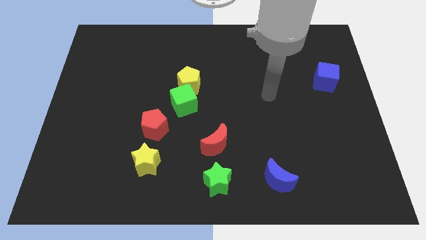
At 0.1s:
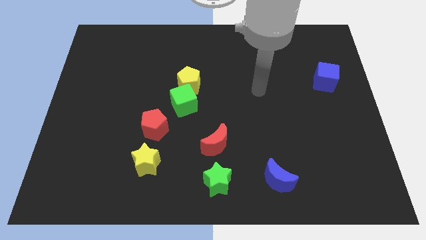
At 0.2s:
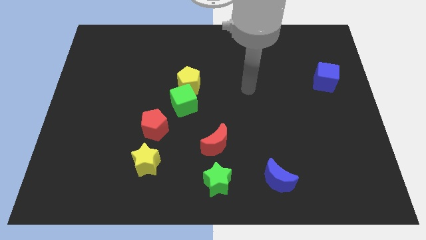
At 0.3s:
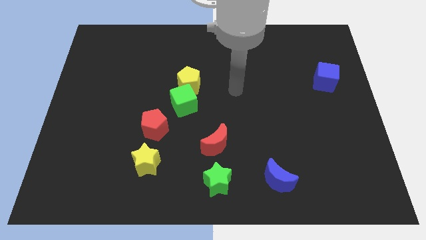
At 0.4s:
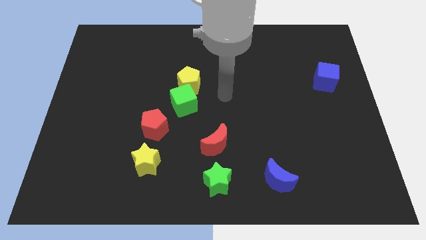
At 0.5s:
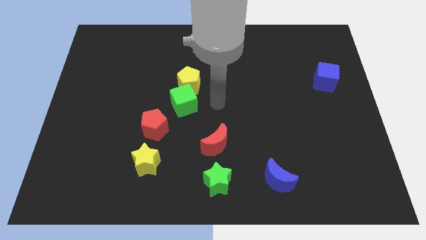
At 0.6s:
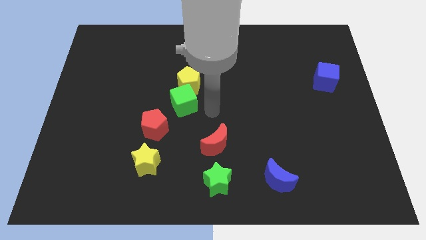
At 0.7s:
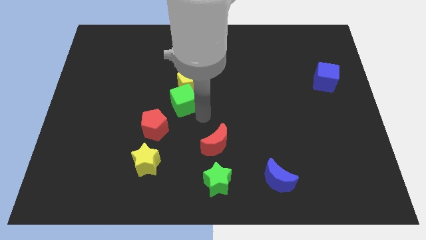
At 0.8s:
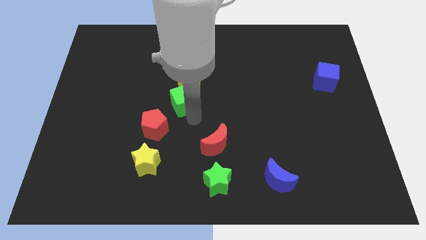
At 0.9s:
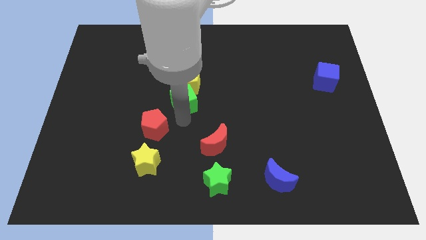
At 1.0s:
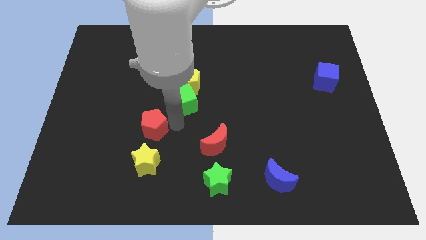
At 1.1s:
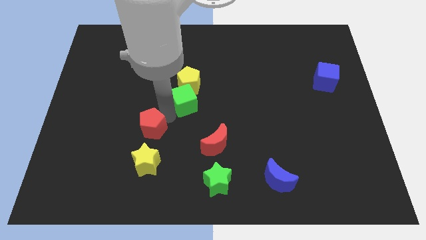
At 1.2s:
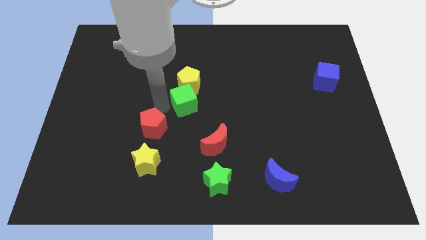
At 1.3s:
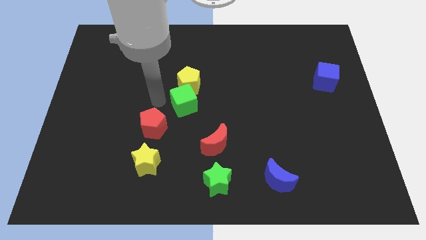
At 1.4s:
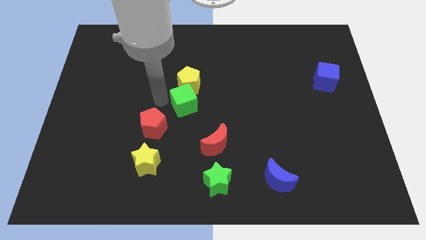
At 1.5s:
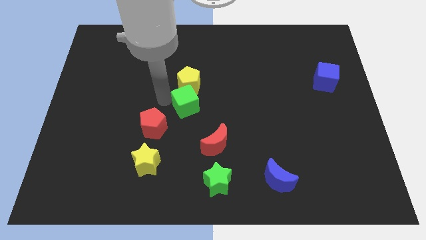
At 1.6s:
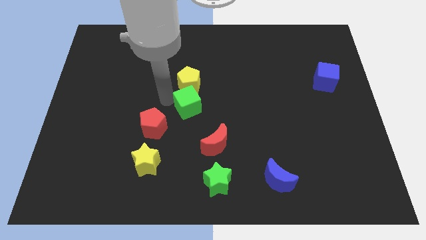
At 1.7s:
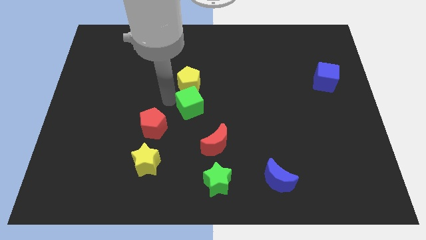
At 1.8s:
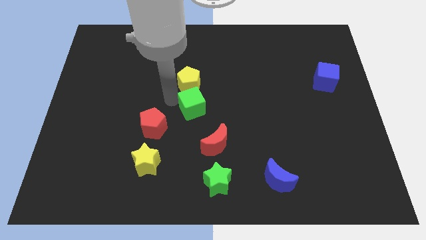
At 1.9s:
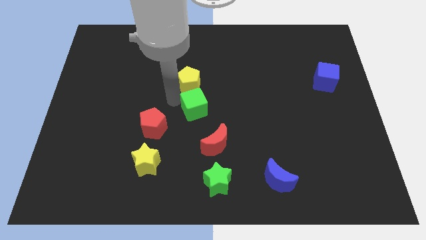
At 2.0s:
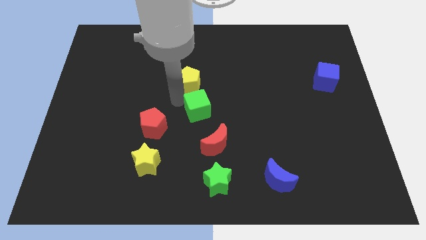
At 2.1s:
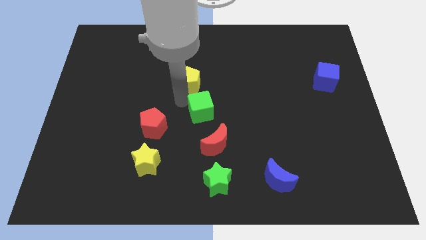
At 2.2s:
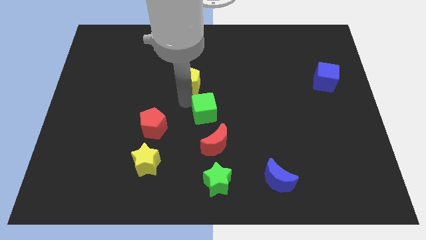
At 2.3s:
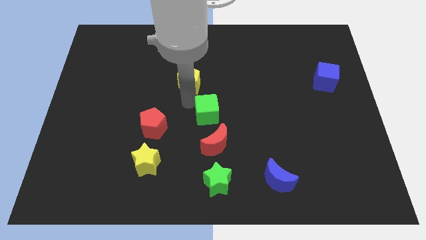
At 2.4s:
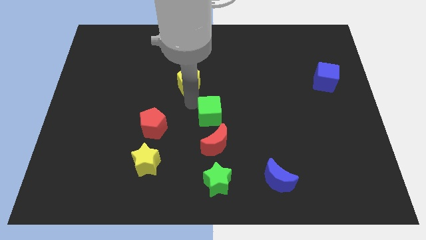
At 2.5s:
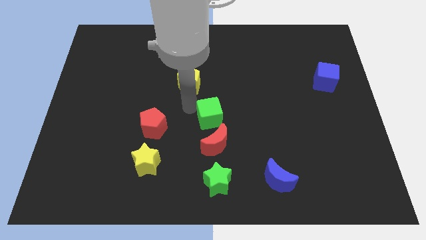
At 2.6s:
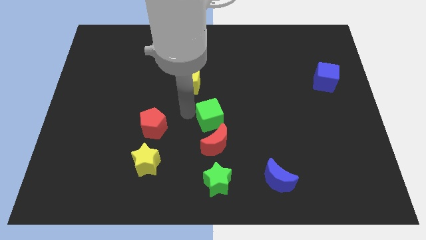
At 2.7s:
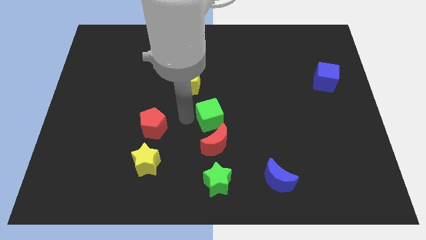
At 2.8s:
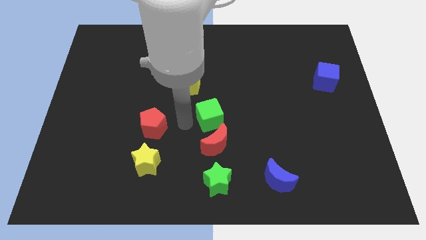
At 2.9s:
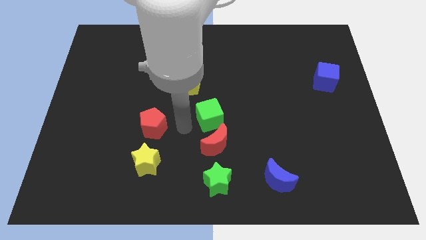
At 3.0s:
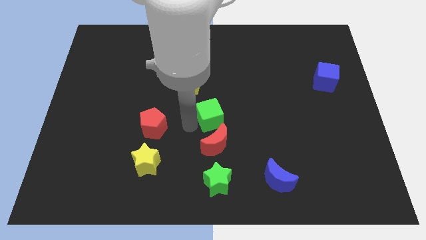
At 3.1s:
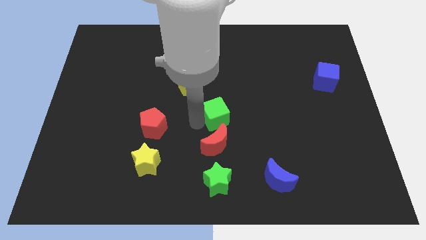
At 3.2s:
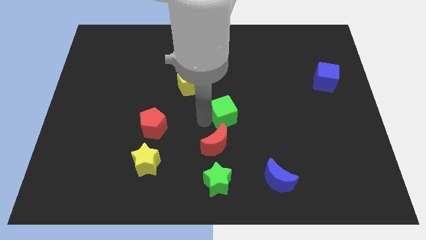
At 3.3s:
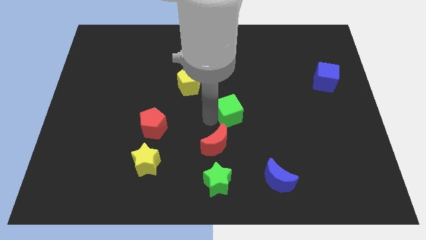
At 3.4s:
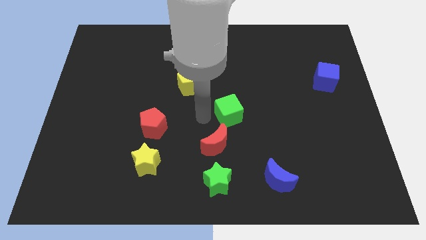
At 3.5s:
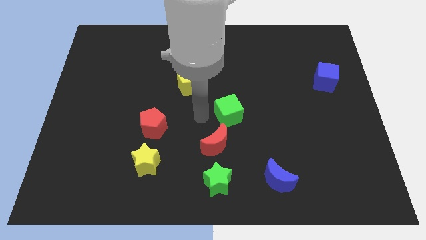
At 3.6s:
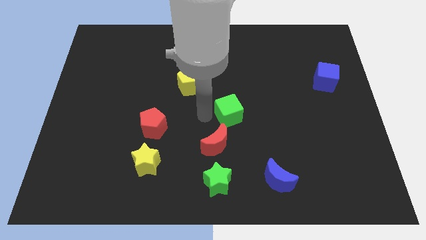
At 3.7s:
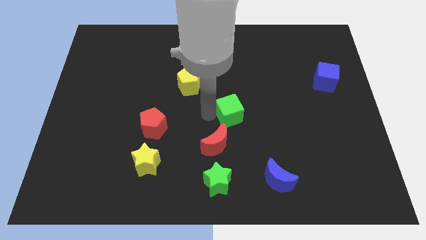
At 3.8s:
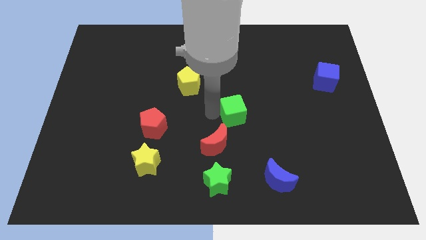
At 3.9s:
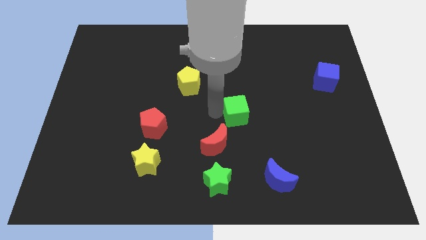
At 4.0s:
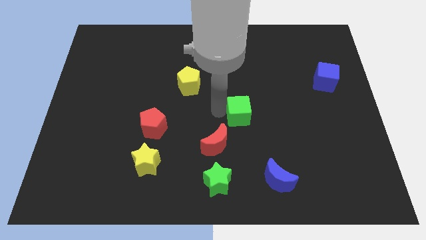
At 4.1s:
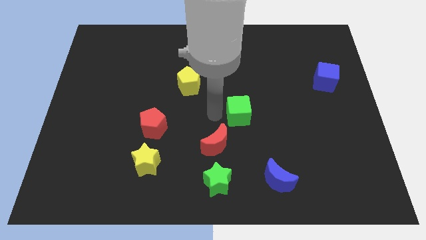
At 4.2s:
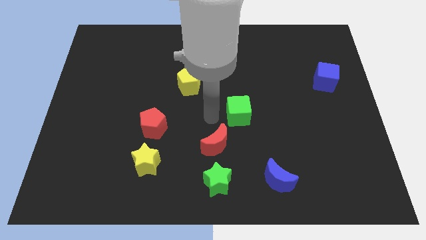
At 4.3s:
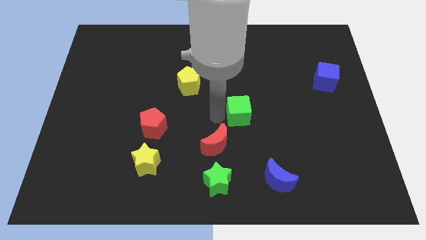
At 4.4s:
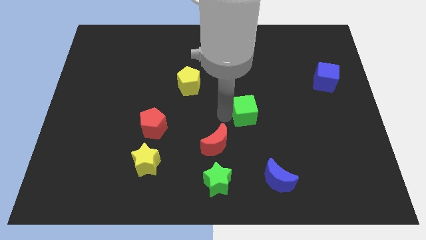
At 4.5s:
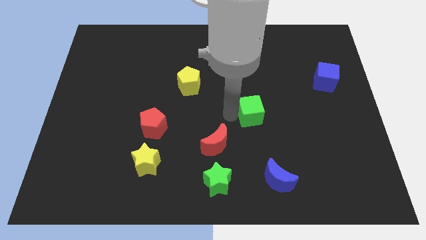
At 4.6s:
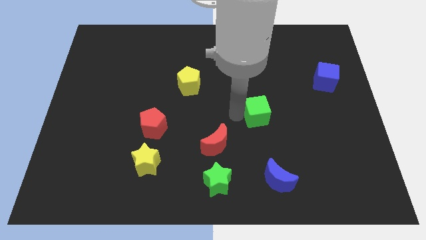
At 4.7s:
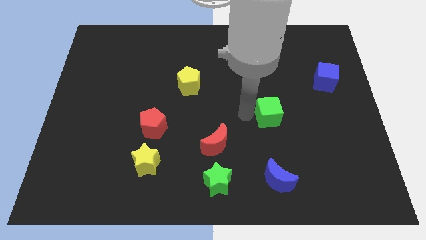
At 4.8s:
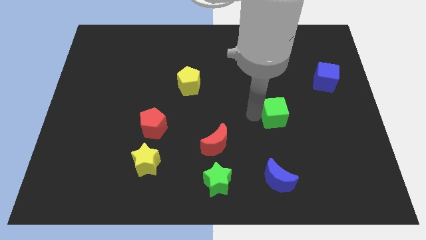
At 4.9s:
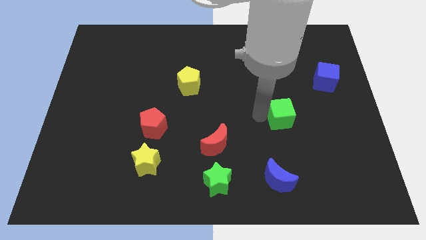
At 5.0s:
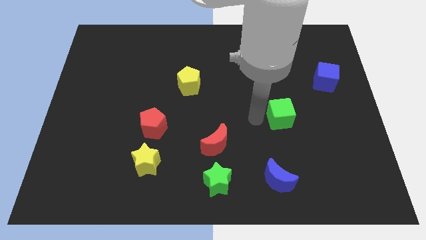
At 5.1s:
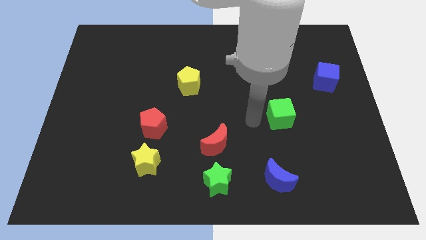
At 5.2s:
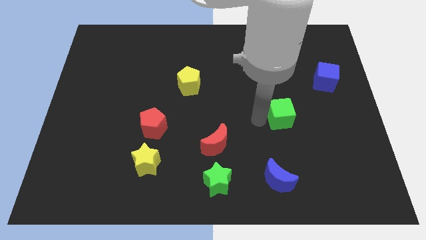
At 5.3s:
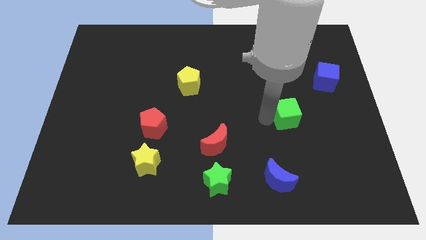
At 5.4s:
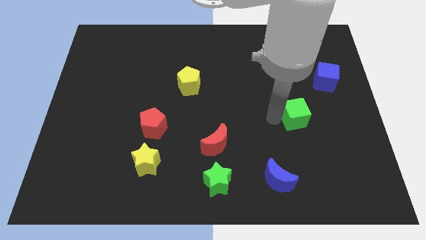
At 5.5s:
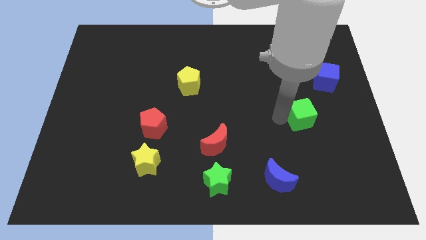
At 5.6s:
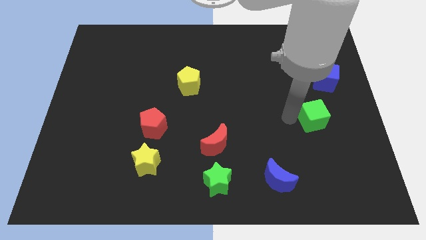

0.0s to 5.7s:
move the green cube below the blue cube

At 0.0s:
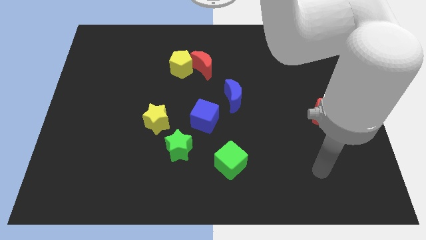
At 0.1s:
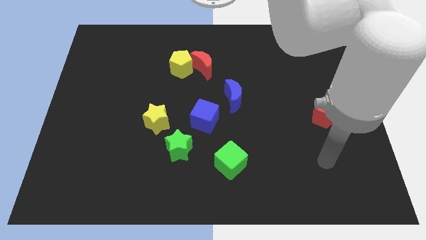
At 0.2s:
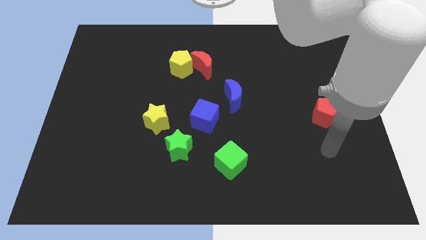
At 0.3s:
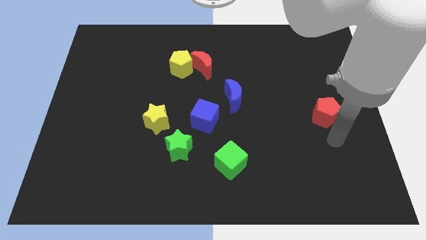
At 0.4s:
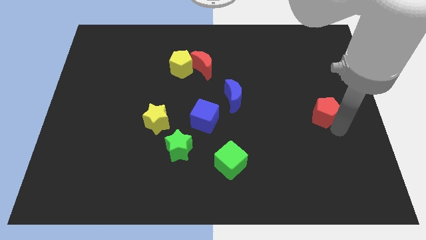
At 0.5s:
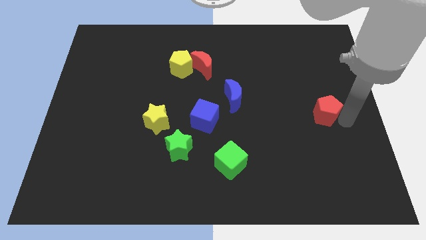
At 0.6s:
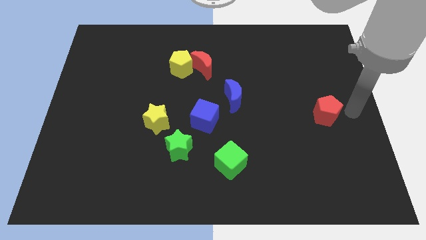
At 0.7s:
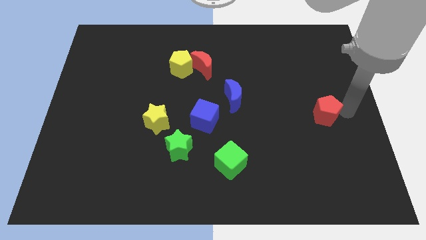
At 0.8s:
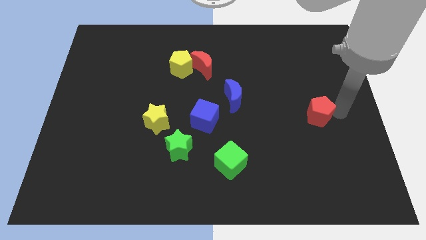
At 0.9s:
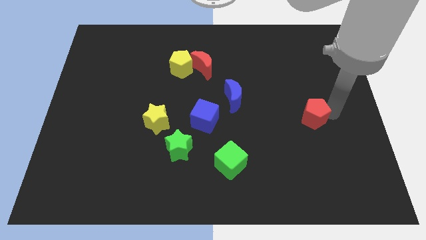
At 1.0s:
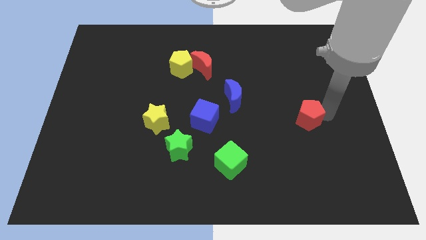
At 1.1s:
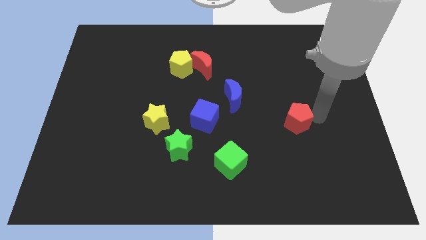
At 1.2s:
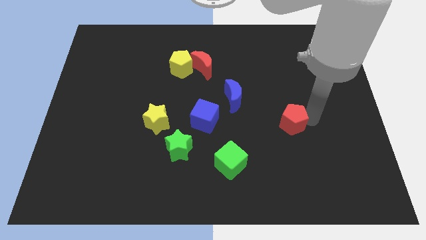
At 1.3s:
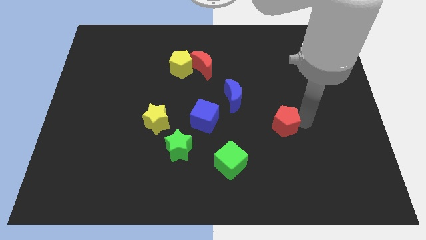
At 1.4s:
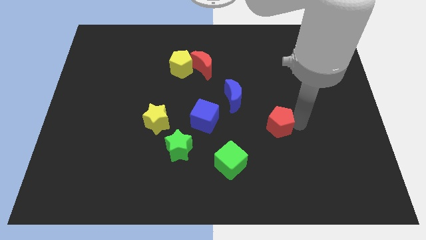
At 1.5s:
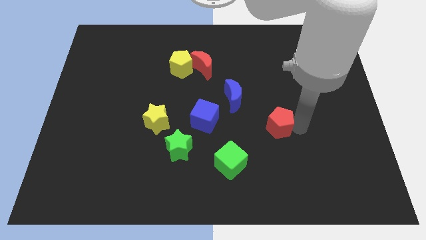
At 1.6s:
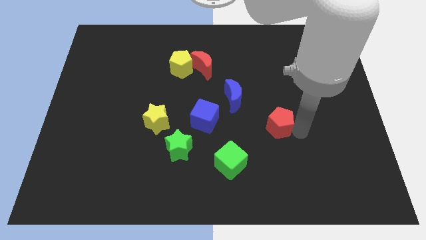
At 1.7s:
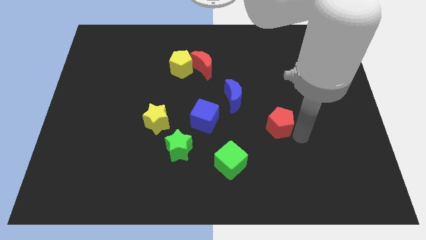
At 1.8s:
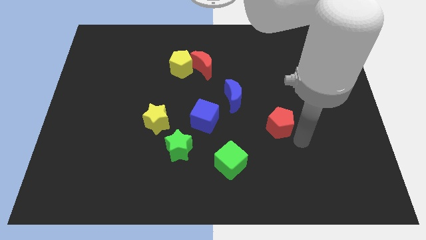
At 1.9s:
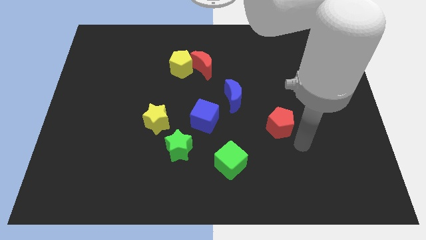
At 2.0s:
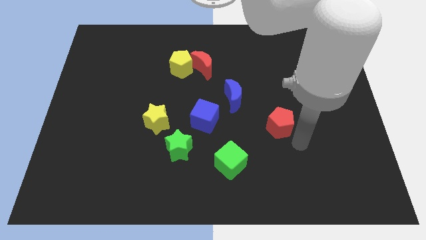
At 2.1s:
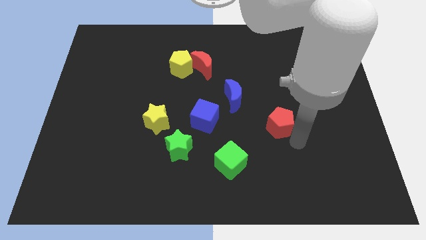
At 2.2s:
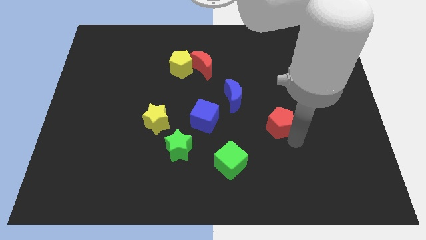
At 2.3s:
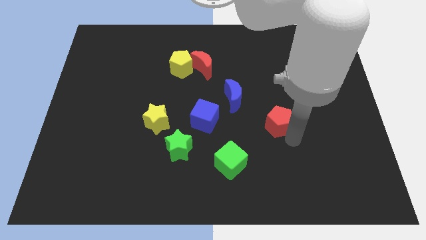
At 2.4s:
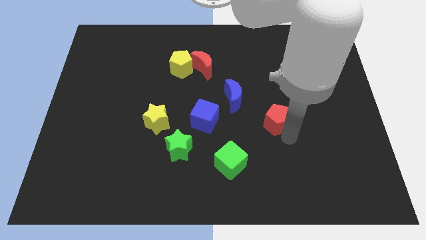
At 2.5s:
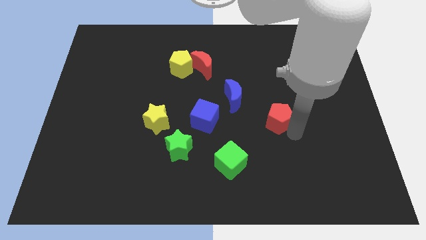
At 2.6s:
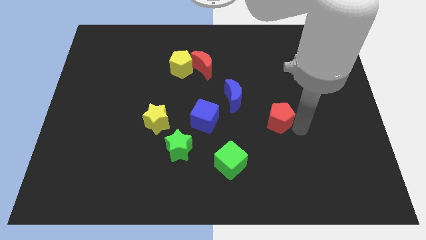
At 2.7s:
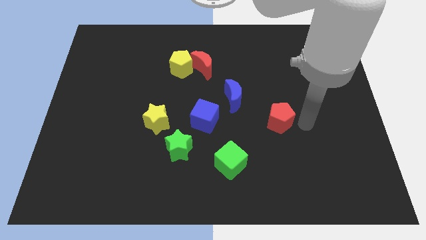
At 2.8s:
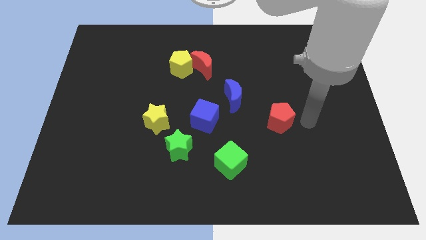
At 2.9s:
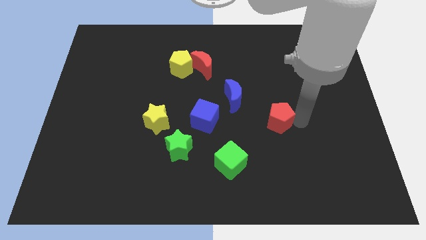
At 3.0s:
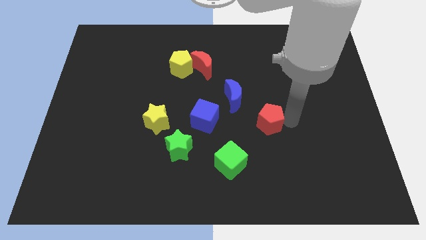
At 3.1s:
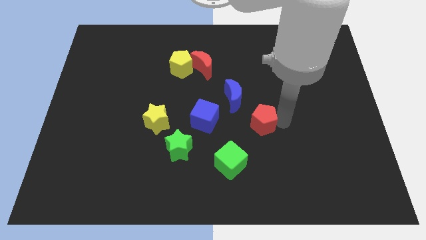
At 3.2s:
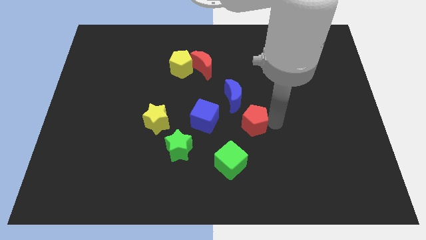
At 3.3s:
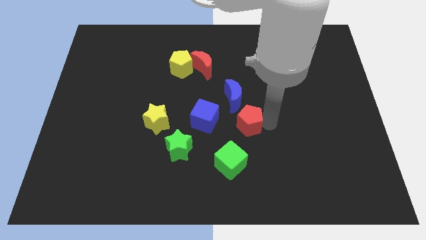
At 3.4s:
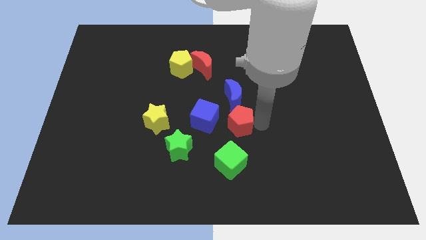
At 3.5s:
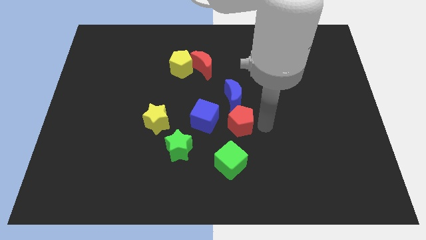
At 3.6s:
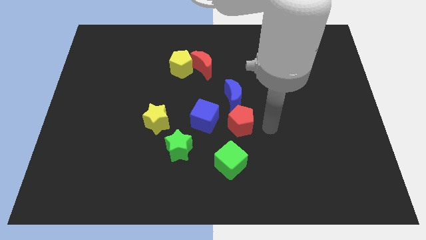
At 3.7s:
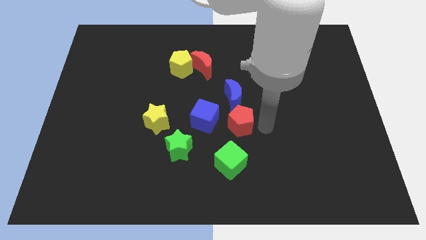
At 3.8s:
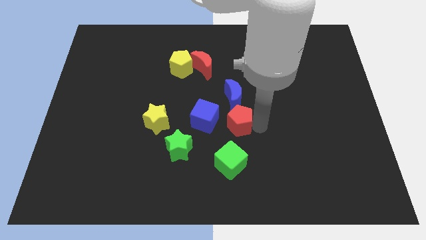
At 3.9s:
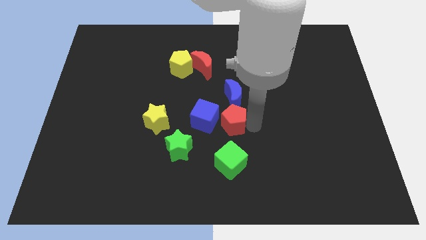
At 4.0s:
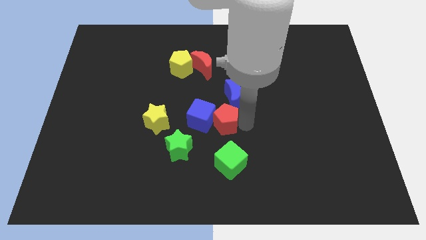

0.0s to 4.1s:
put the red pentagon to the right of the yellow star
